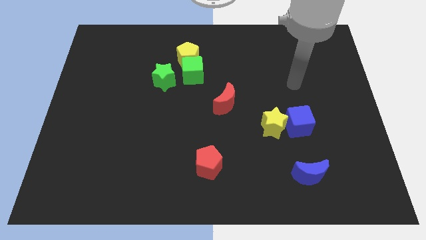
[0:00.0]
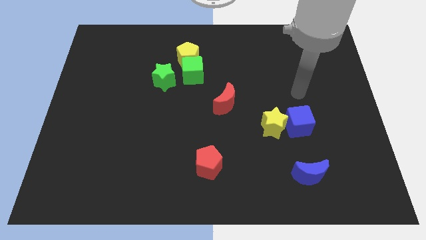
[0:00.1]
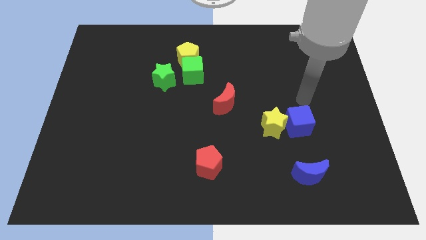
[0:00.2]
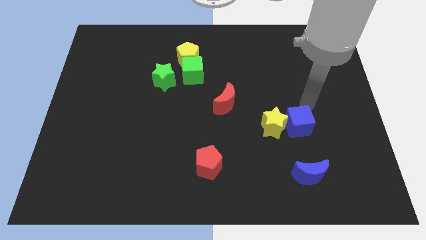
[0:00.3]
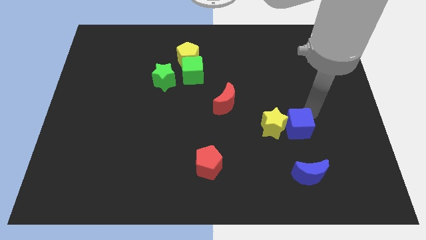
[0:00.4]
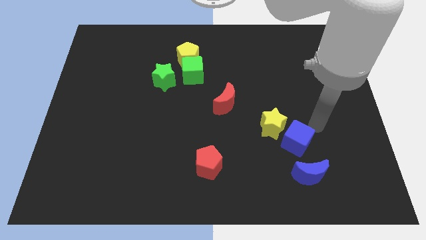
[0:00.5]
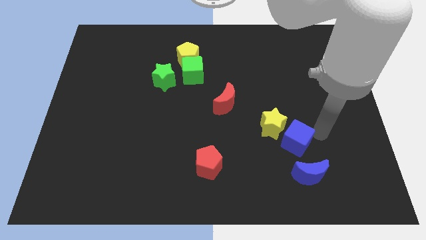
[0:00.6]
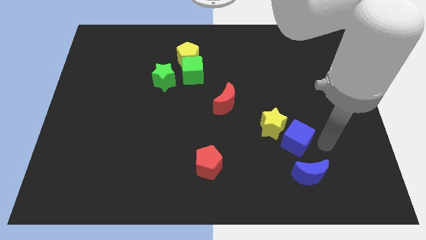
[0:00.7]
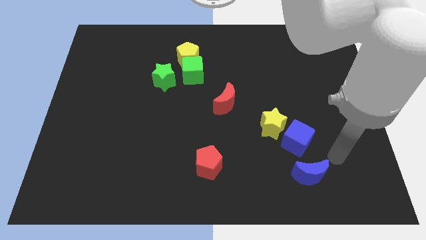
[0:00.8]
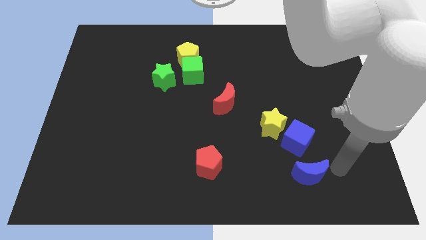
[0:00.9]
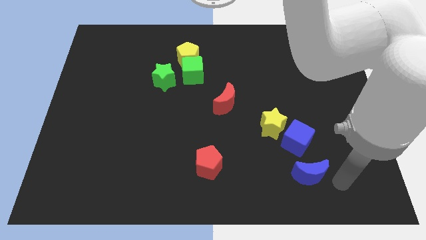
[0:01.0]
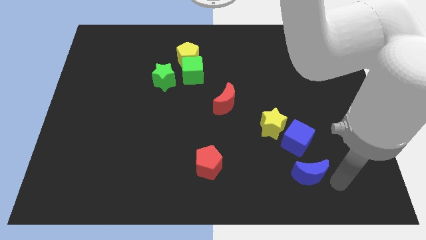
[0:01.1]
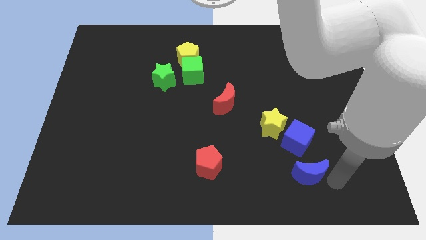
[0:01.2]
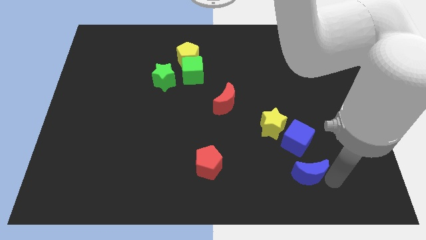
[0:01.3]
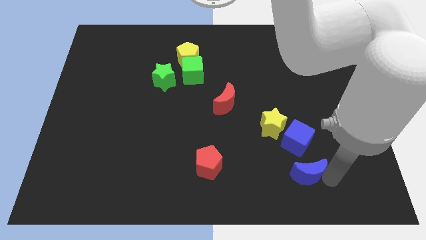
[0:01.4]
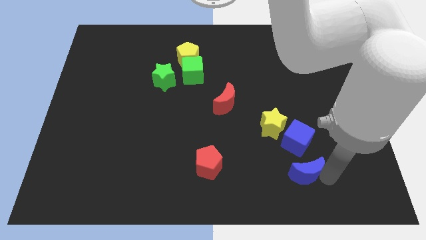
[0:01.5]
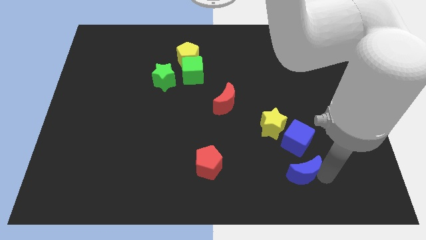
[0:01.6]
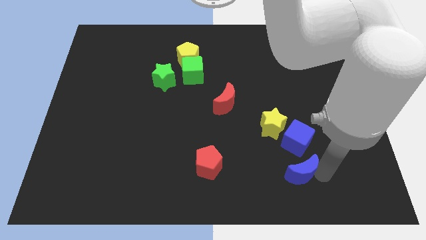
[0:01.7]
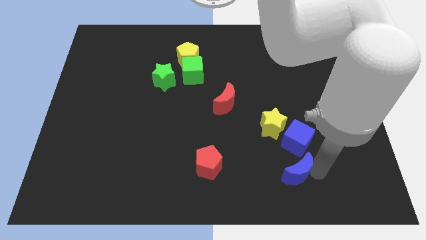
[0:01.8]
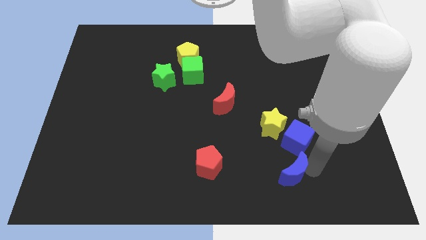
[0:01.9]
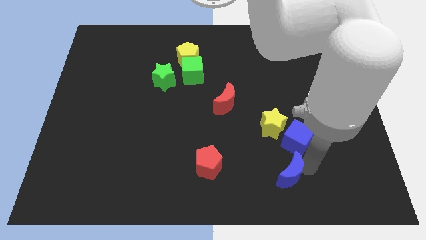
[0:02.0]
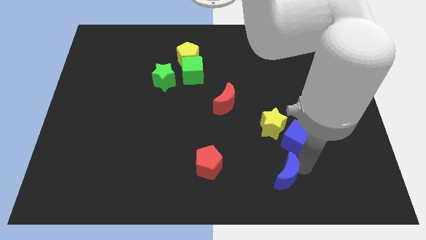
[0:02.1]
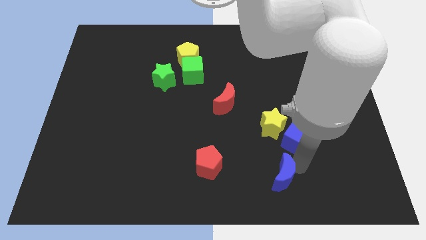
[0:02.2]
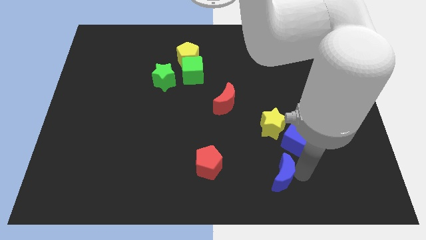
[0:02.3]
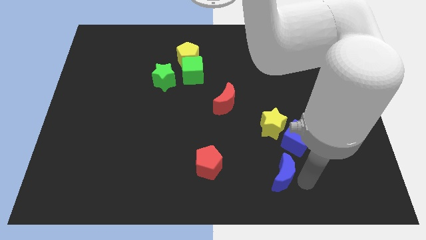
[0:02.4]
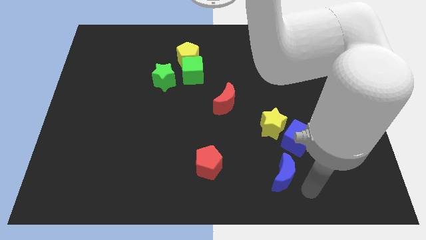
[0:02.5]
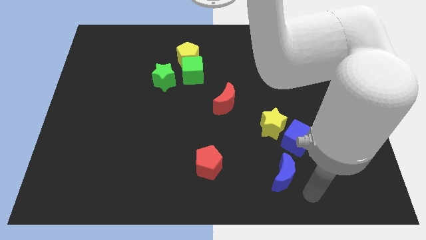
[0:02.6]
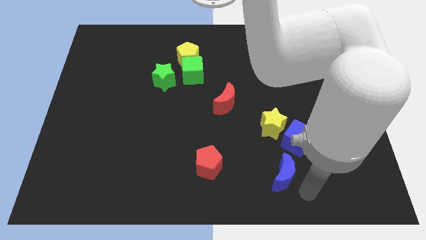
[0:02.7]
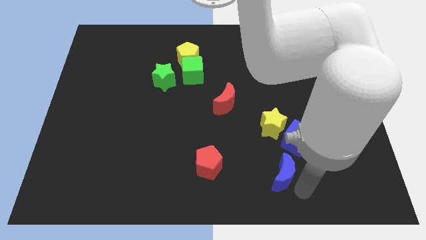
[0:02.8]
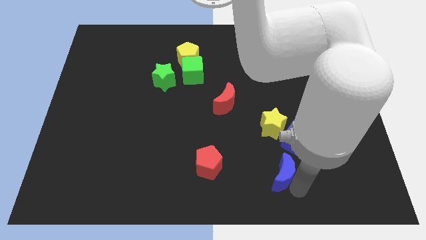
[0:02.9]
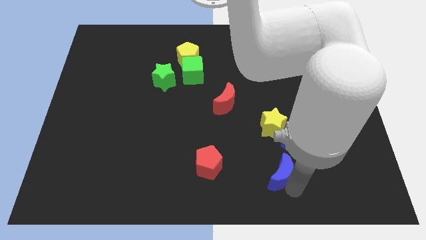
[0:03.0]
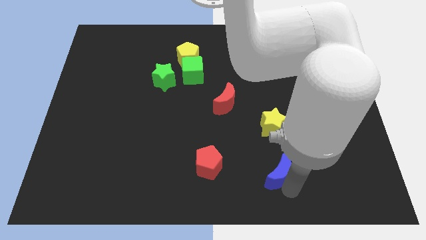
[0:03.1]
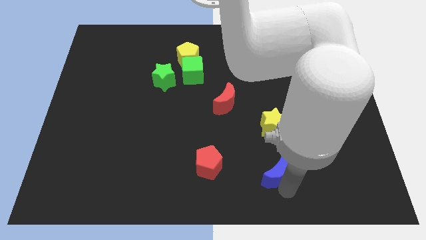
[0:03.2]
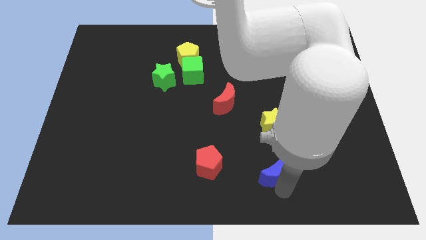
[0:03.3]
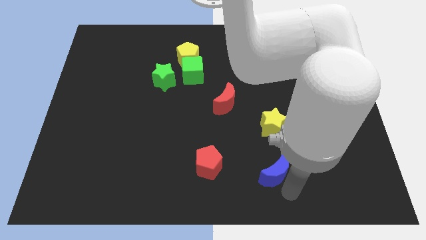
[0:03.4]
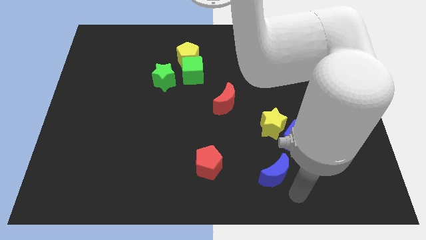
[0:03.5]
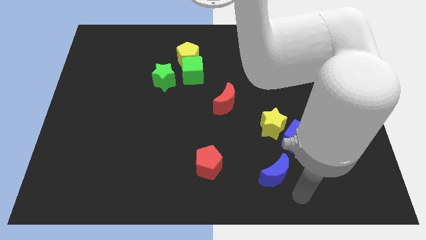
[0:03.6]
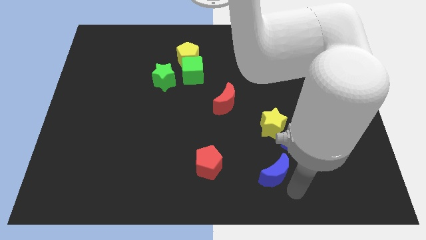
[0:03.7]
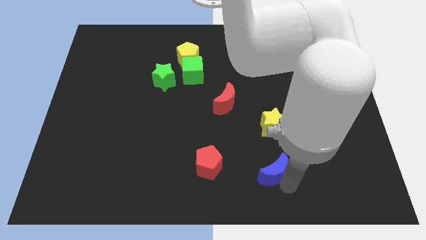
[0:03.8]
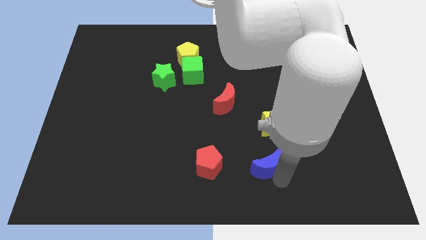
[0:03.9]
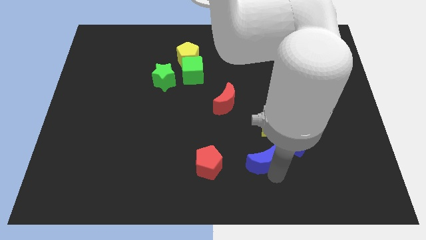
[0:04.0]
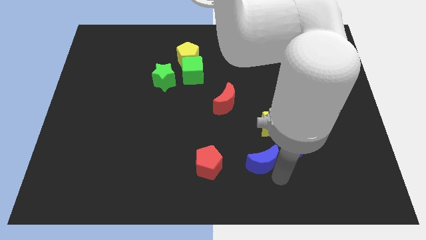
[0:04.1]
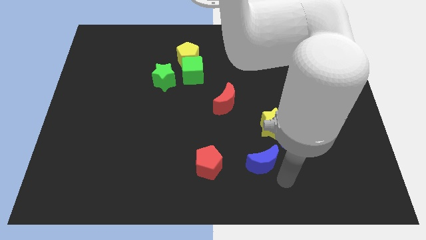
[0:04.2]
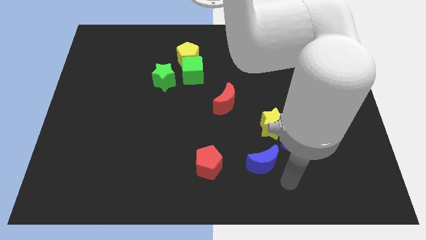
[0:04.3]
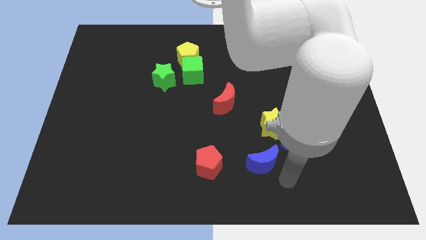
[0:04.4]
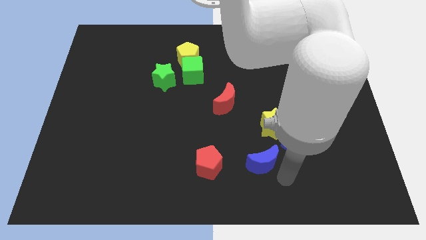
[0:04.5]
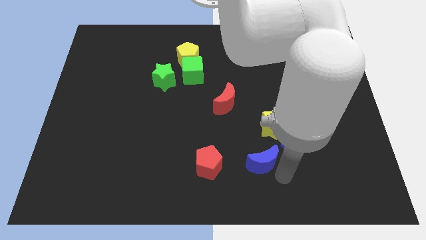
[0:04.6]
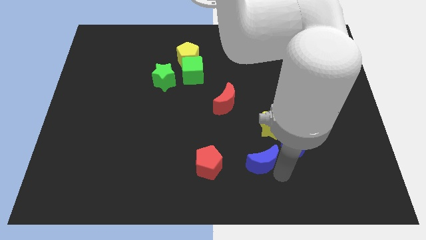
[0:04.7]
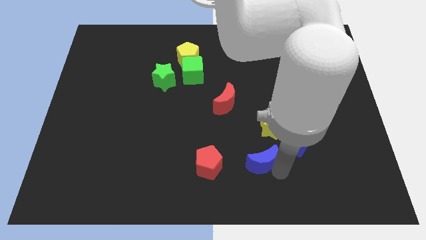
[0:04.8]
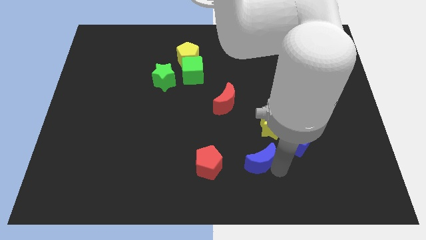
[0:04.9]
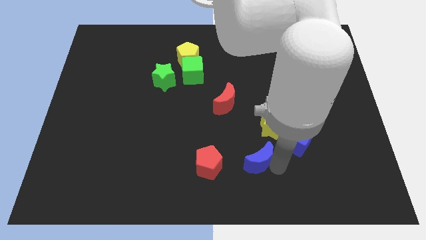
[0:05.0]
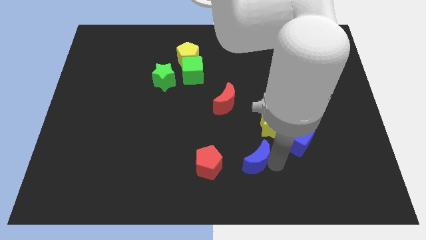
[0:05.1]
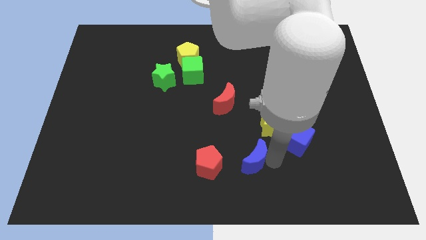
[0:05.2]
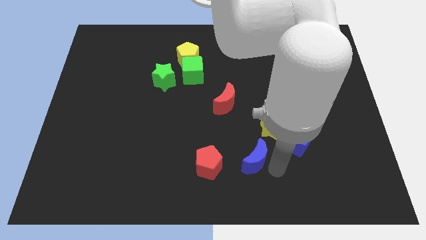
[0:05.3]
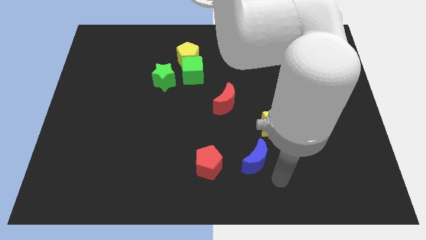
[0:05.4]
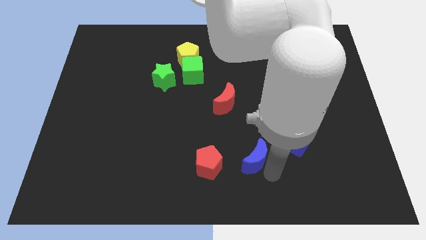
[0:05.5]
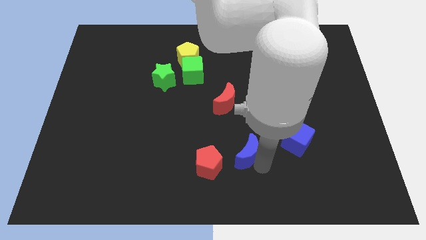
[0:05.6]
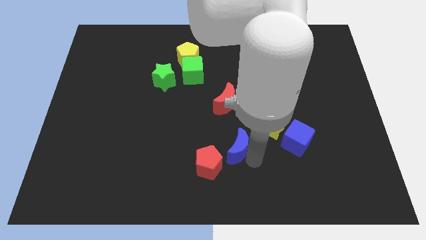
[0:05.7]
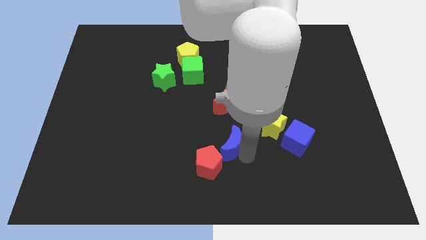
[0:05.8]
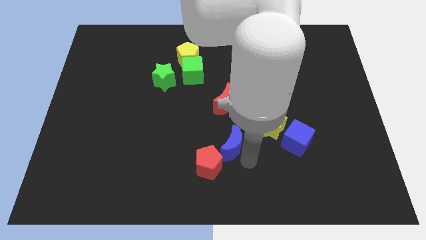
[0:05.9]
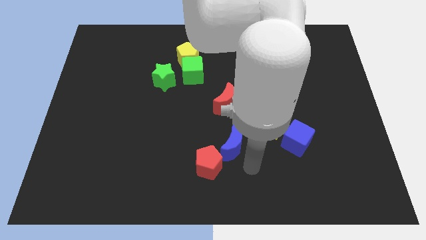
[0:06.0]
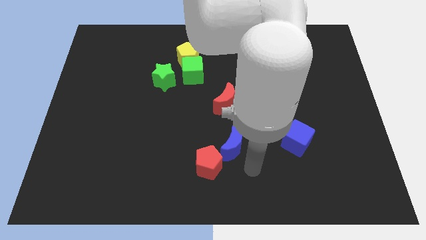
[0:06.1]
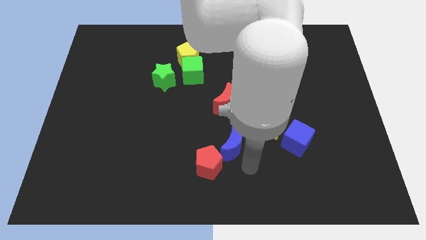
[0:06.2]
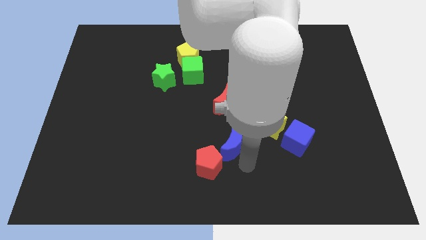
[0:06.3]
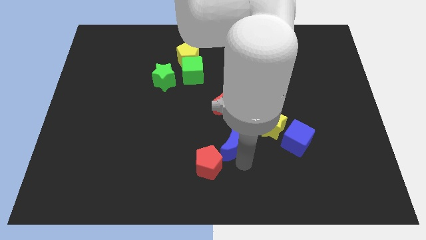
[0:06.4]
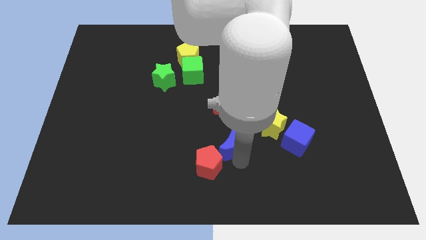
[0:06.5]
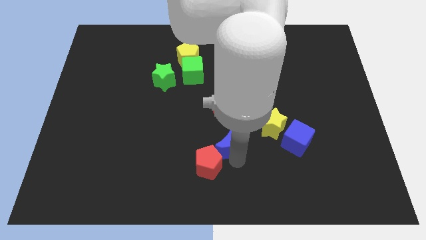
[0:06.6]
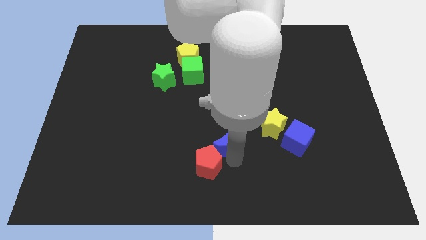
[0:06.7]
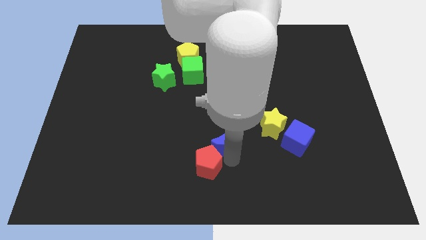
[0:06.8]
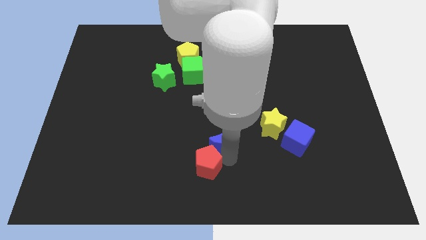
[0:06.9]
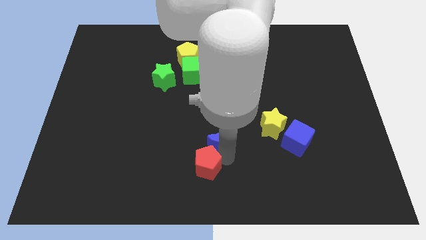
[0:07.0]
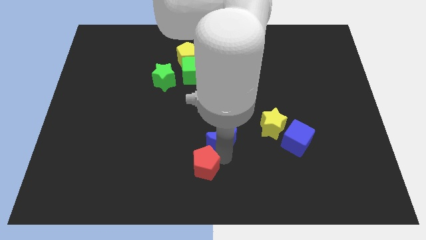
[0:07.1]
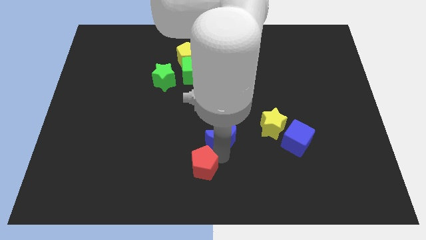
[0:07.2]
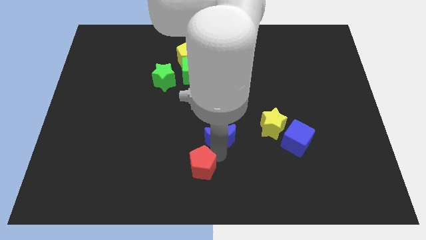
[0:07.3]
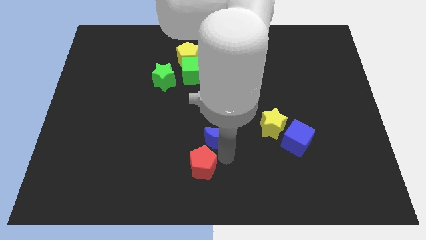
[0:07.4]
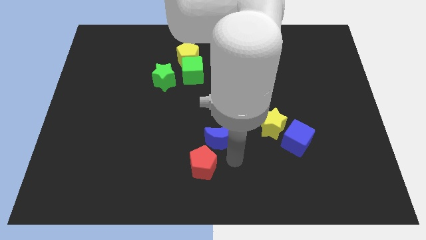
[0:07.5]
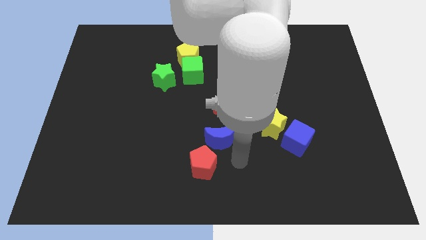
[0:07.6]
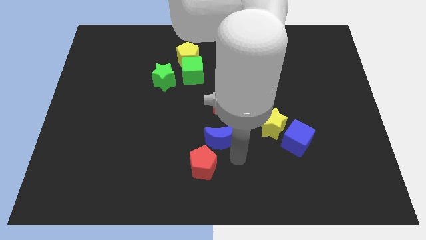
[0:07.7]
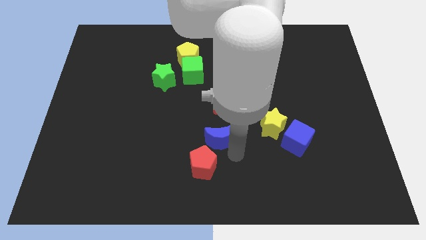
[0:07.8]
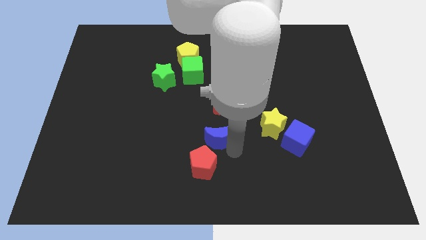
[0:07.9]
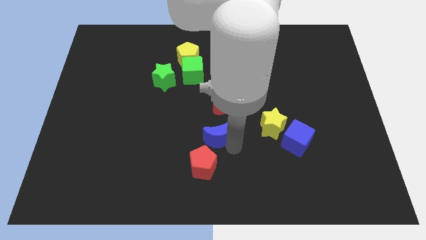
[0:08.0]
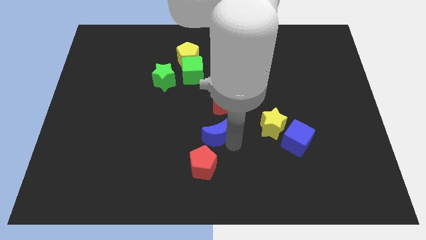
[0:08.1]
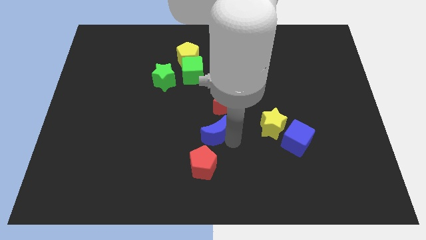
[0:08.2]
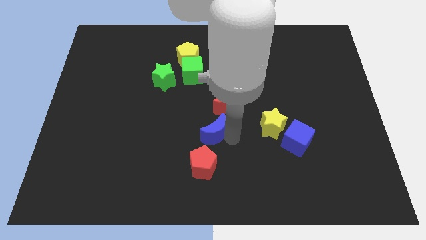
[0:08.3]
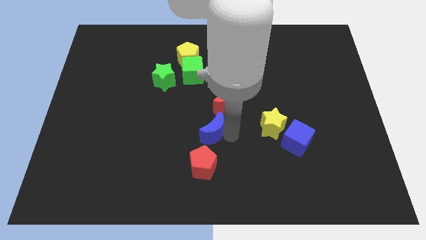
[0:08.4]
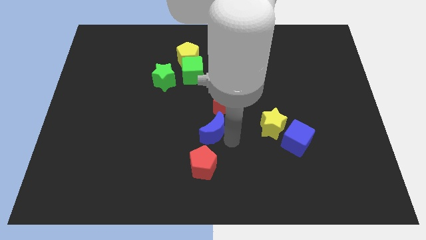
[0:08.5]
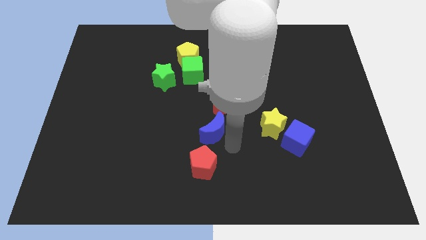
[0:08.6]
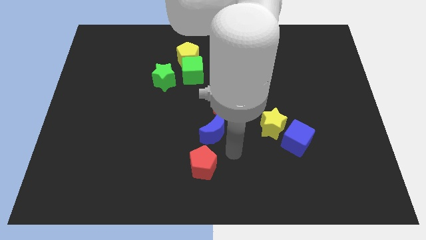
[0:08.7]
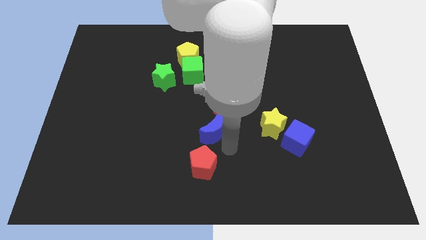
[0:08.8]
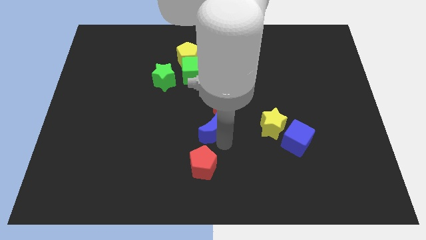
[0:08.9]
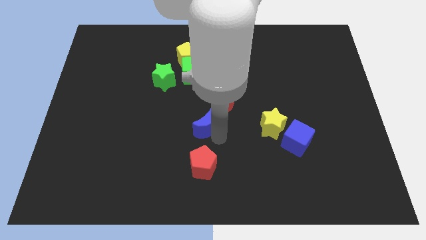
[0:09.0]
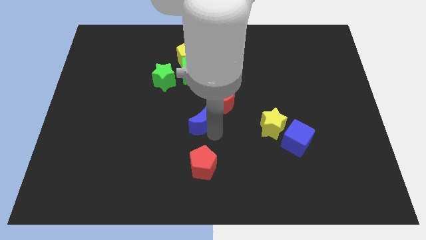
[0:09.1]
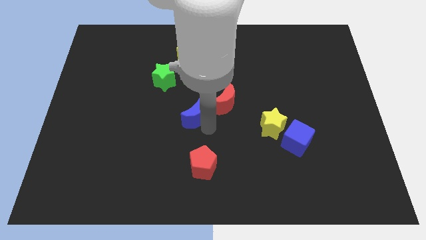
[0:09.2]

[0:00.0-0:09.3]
push the blue moon to the left side of the red moon
